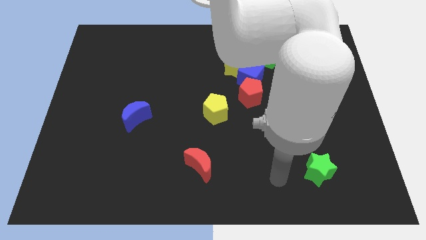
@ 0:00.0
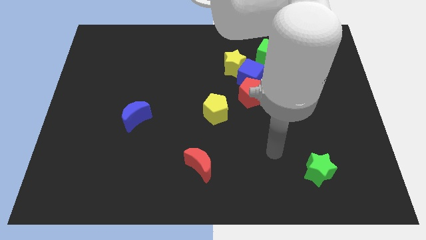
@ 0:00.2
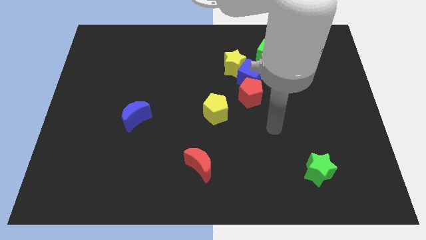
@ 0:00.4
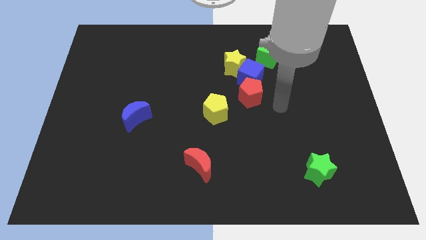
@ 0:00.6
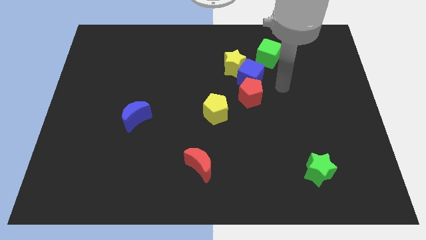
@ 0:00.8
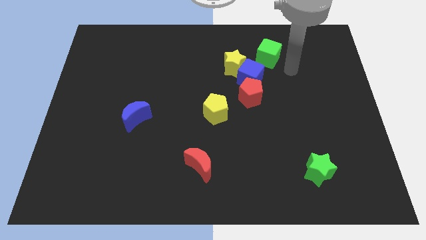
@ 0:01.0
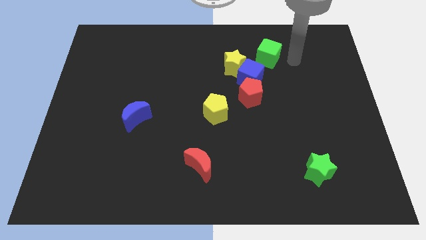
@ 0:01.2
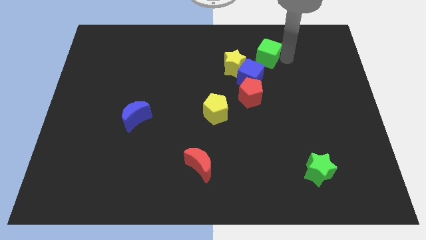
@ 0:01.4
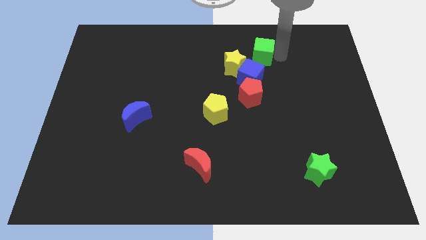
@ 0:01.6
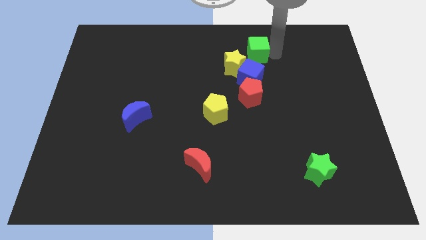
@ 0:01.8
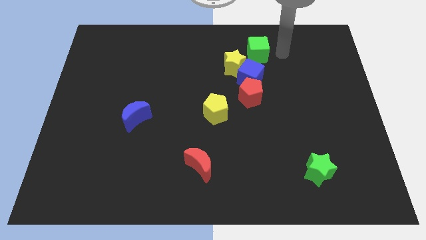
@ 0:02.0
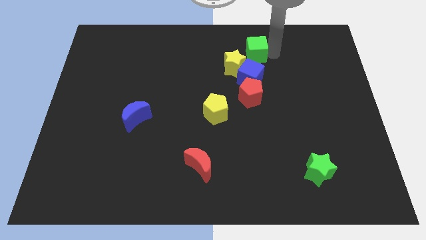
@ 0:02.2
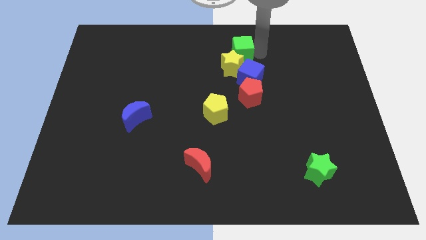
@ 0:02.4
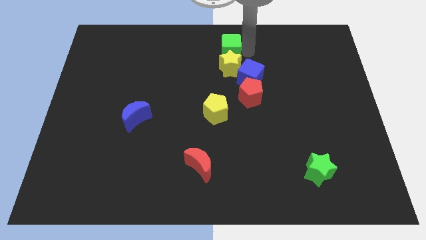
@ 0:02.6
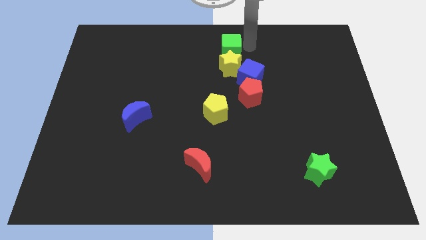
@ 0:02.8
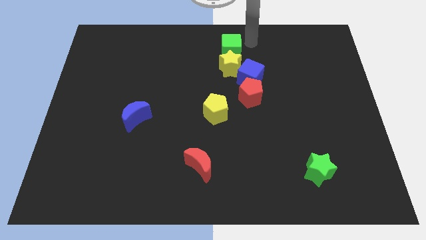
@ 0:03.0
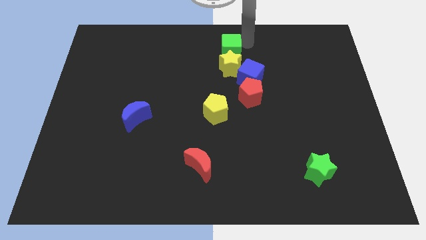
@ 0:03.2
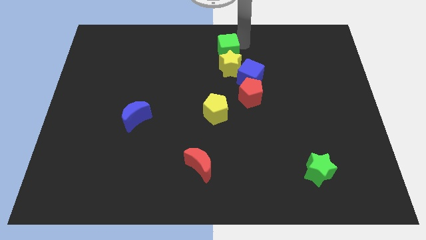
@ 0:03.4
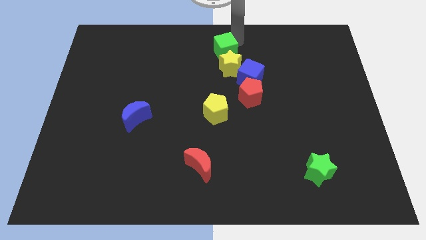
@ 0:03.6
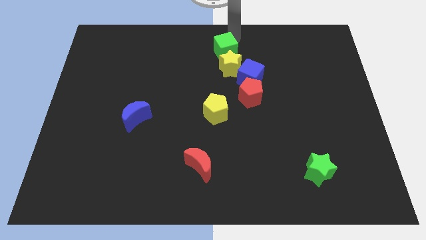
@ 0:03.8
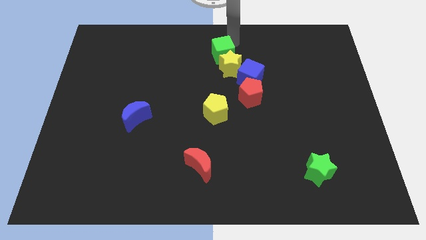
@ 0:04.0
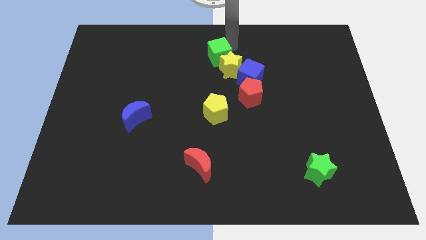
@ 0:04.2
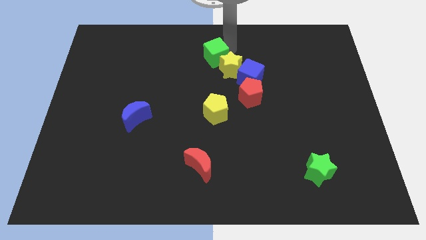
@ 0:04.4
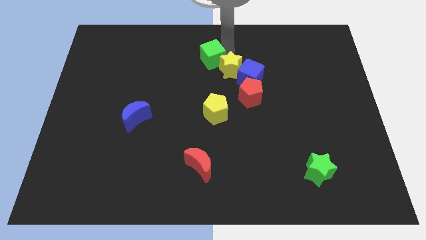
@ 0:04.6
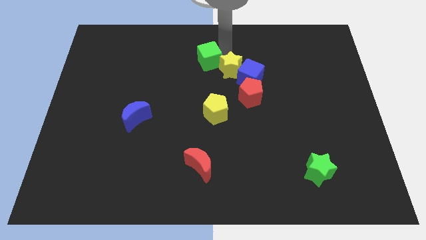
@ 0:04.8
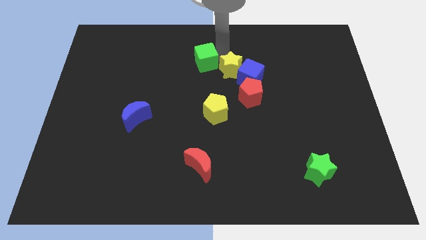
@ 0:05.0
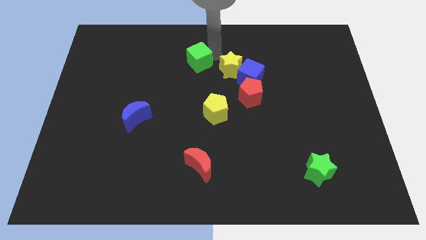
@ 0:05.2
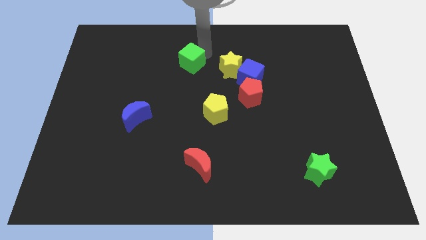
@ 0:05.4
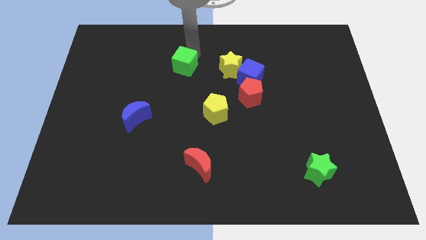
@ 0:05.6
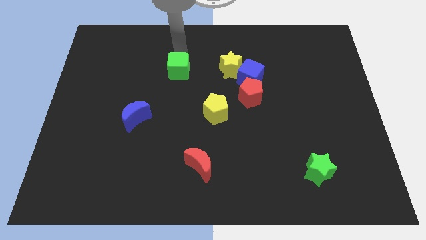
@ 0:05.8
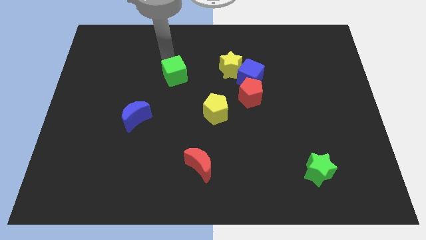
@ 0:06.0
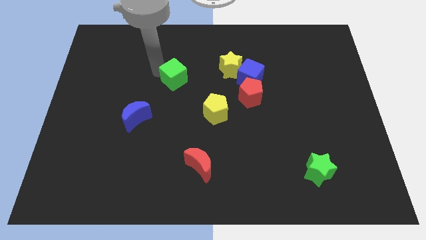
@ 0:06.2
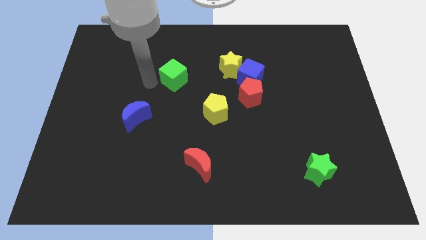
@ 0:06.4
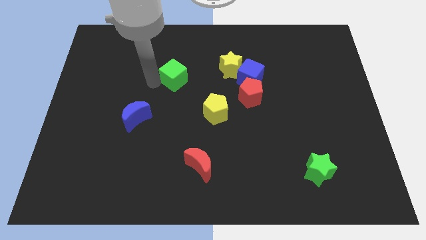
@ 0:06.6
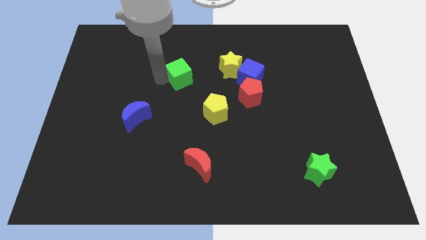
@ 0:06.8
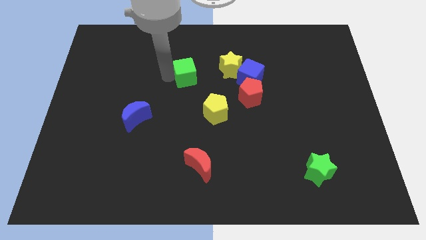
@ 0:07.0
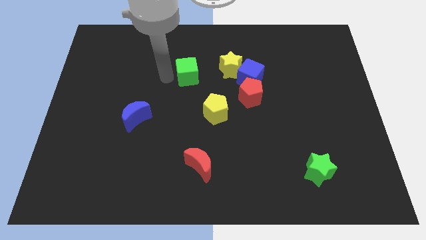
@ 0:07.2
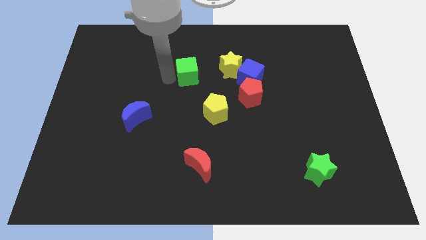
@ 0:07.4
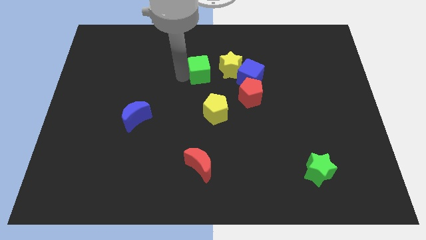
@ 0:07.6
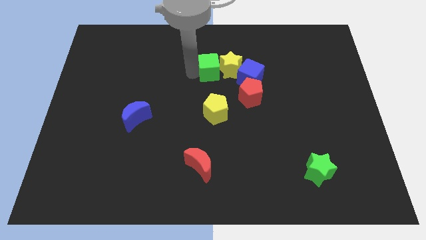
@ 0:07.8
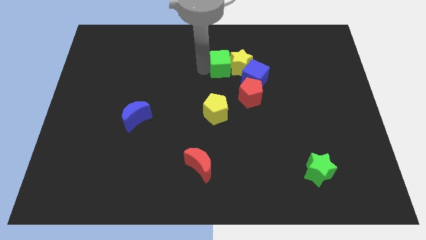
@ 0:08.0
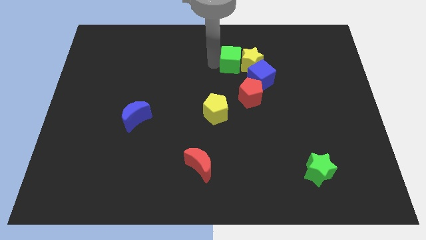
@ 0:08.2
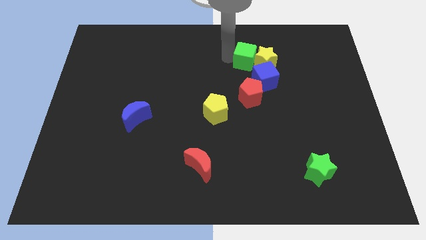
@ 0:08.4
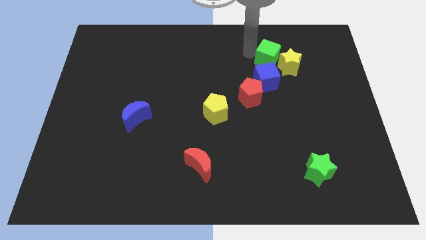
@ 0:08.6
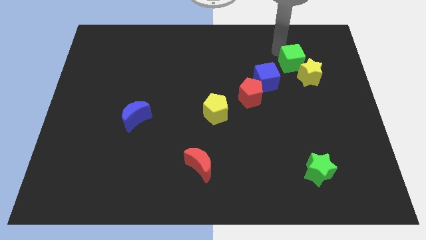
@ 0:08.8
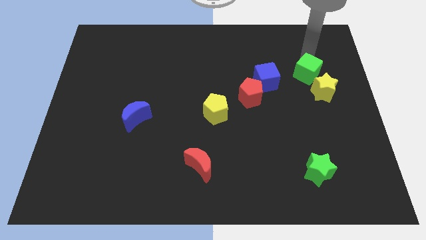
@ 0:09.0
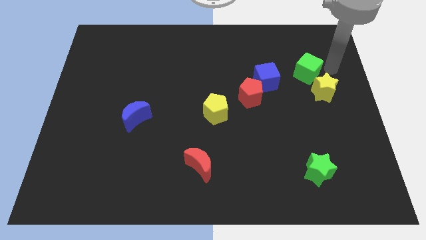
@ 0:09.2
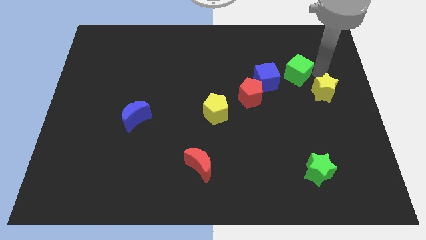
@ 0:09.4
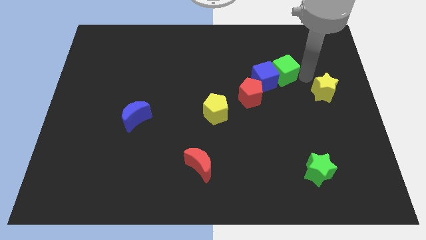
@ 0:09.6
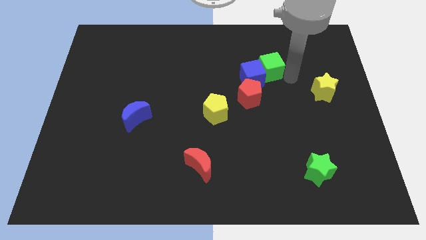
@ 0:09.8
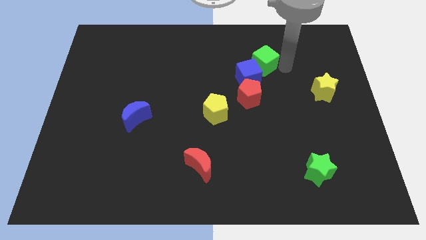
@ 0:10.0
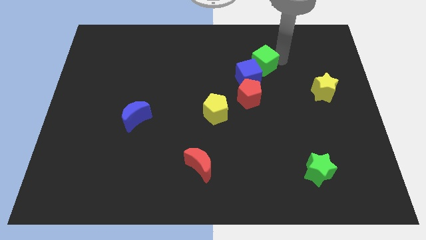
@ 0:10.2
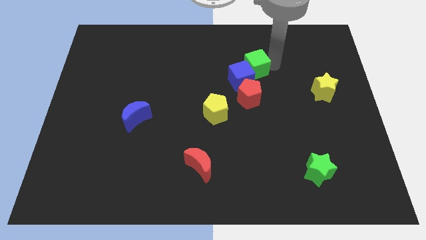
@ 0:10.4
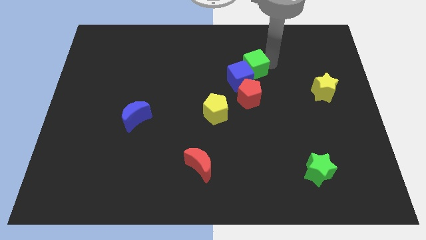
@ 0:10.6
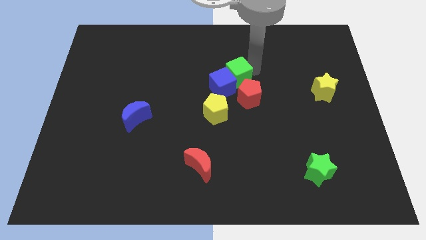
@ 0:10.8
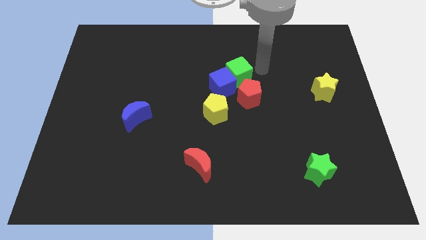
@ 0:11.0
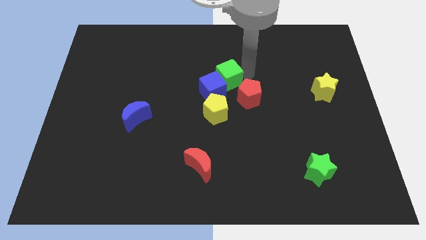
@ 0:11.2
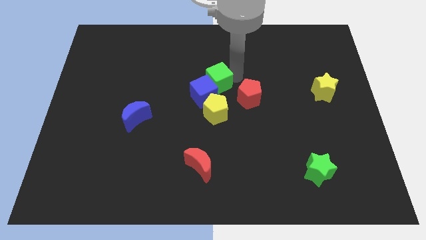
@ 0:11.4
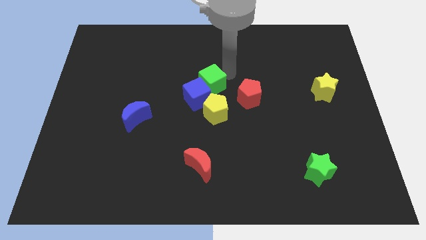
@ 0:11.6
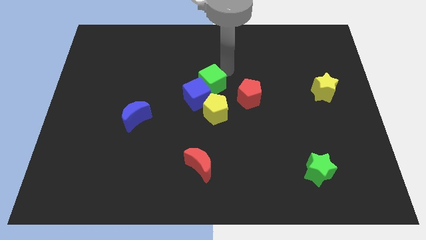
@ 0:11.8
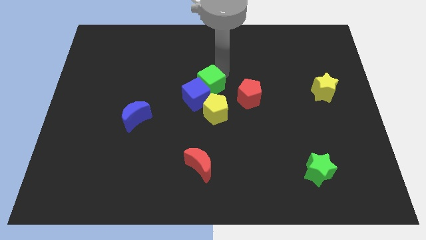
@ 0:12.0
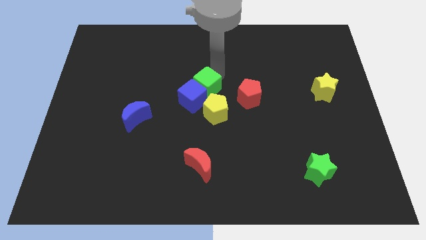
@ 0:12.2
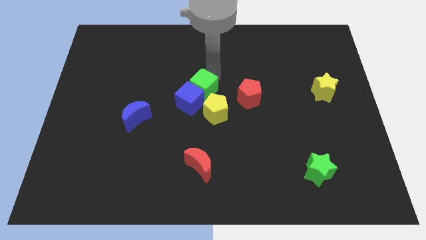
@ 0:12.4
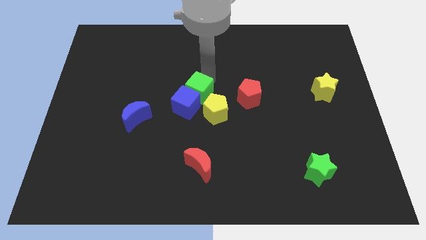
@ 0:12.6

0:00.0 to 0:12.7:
slide the green cube down and to the left diagonally

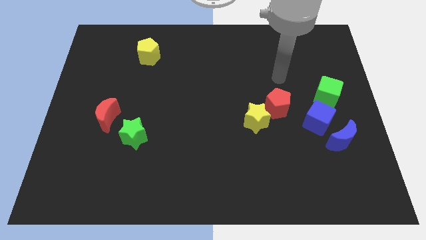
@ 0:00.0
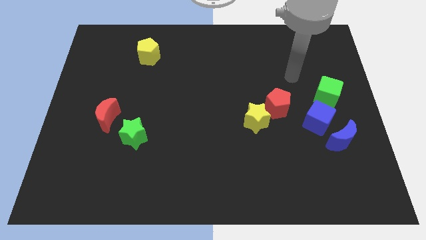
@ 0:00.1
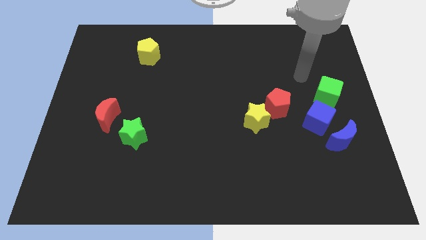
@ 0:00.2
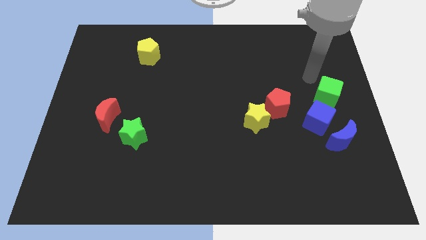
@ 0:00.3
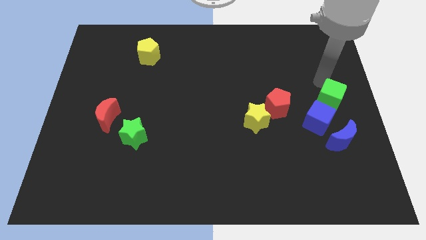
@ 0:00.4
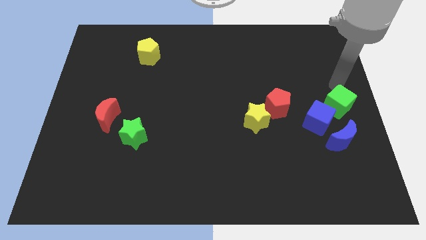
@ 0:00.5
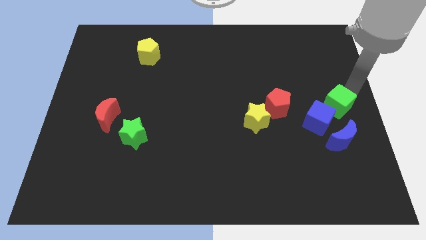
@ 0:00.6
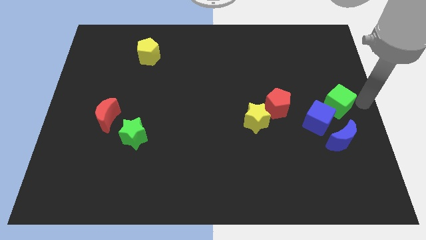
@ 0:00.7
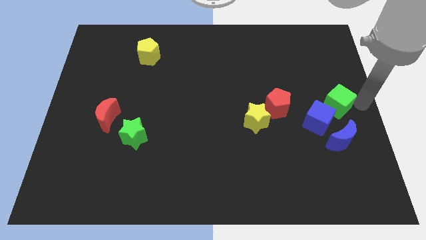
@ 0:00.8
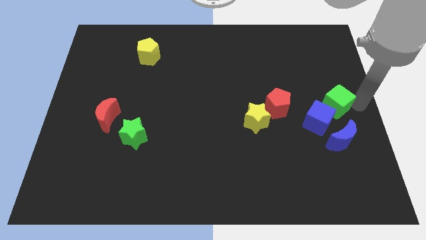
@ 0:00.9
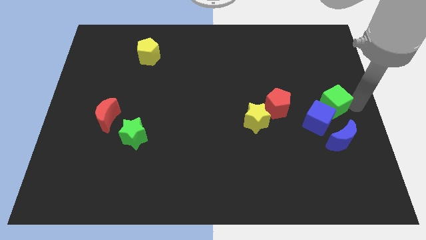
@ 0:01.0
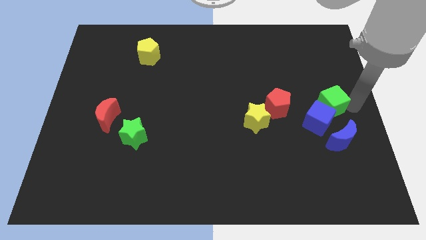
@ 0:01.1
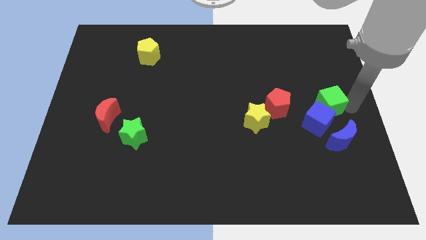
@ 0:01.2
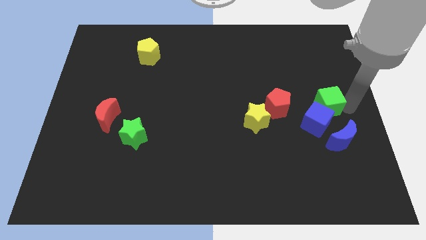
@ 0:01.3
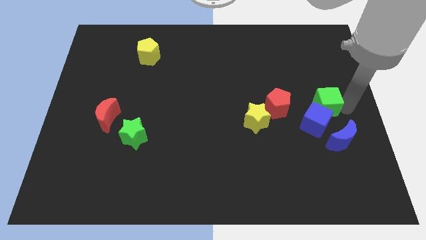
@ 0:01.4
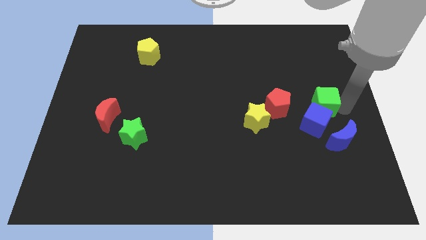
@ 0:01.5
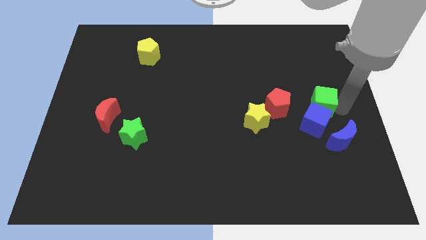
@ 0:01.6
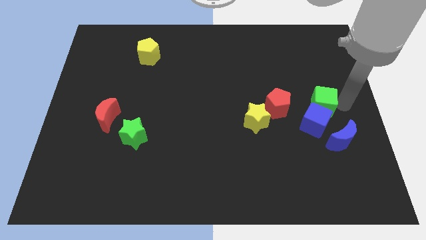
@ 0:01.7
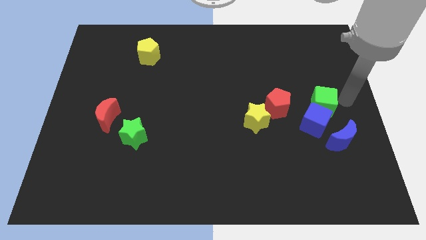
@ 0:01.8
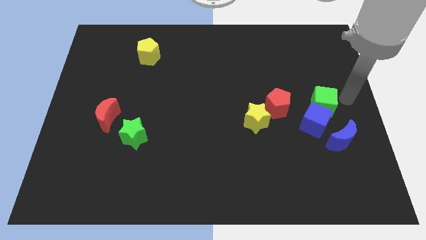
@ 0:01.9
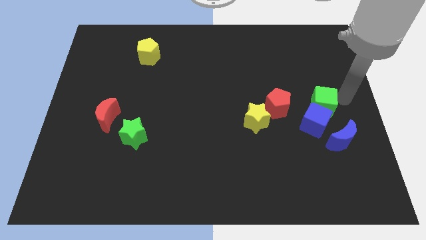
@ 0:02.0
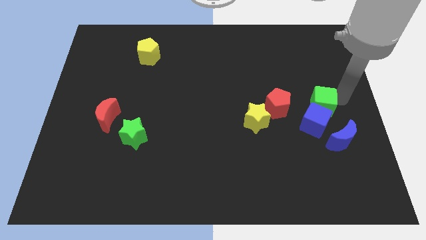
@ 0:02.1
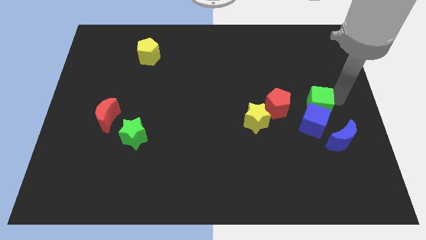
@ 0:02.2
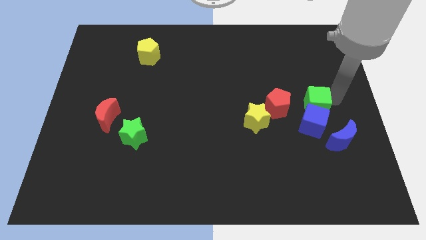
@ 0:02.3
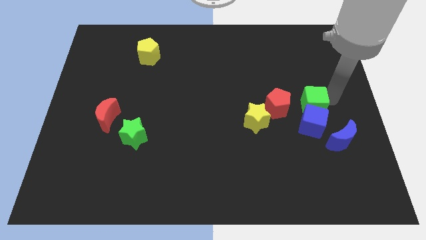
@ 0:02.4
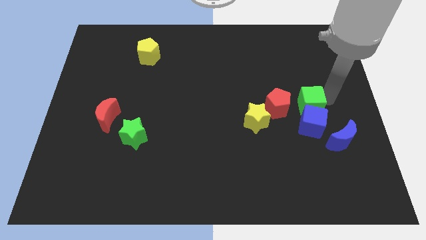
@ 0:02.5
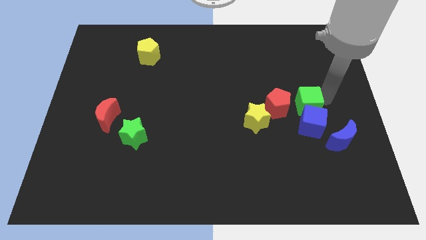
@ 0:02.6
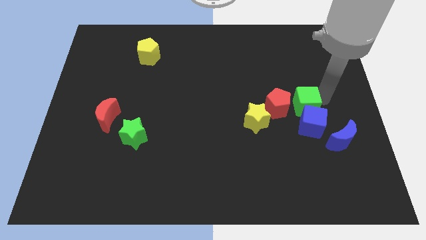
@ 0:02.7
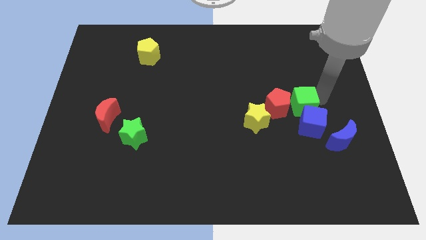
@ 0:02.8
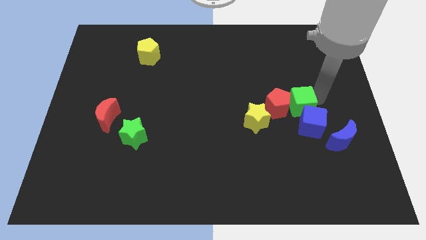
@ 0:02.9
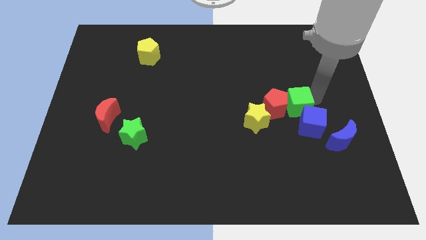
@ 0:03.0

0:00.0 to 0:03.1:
slide the green cube downwards and then left somewhat
